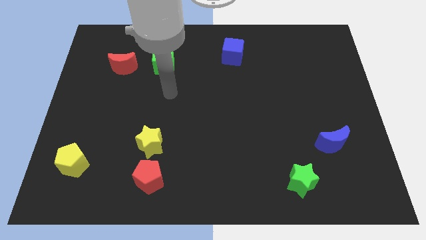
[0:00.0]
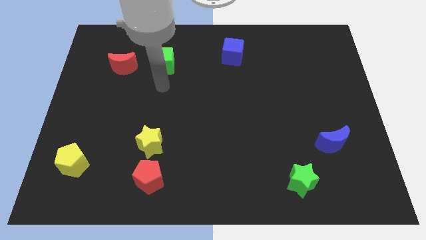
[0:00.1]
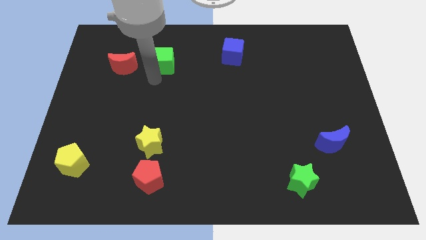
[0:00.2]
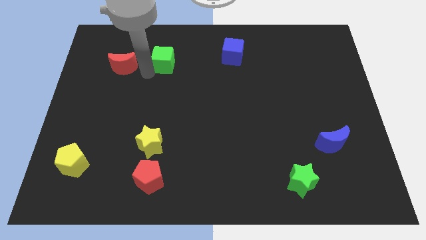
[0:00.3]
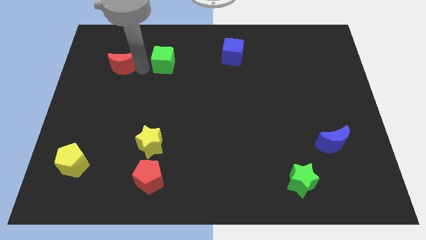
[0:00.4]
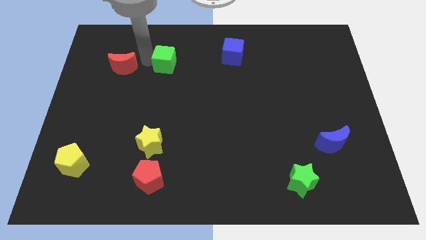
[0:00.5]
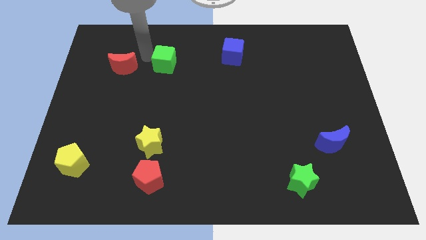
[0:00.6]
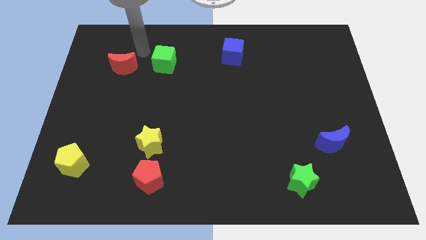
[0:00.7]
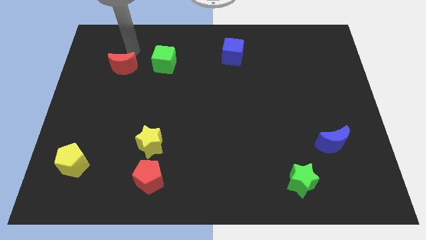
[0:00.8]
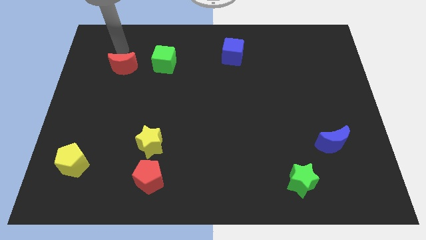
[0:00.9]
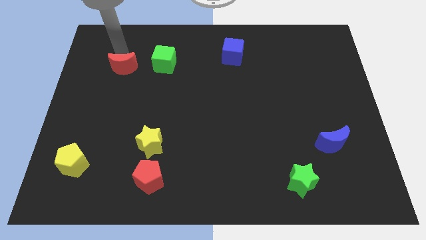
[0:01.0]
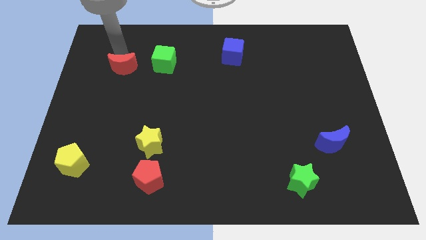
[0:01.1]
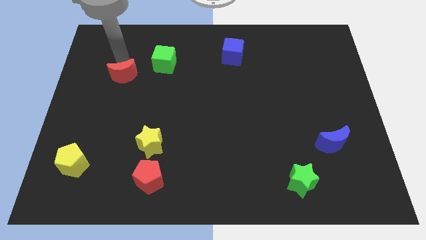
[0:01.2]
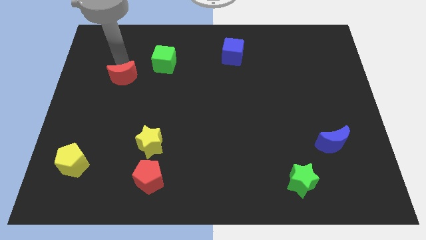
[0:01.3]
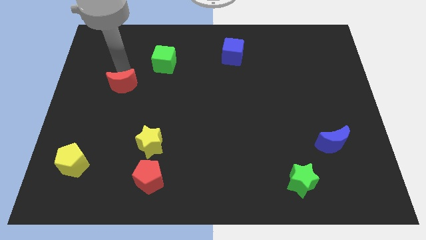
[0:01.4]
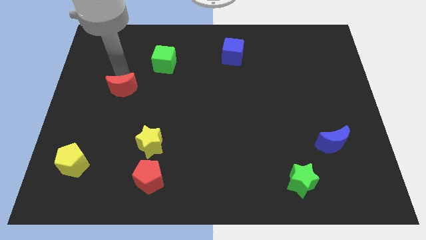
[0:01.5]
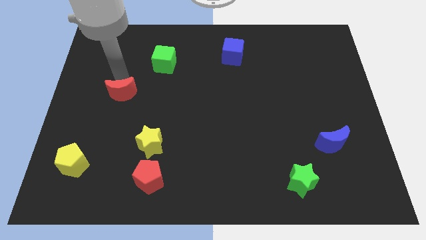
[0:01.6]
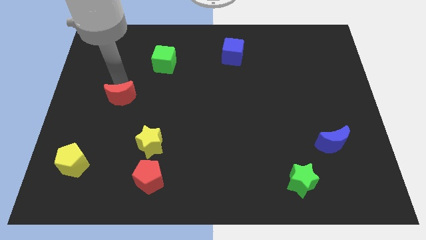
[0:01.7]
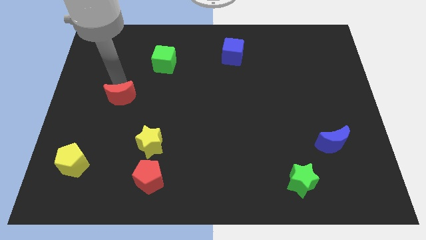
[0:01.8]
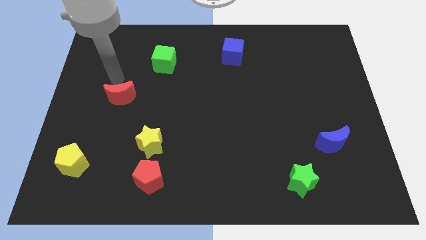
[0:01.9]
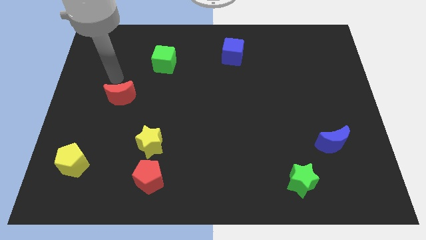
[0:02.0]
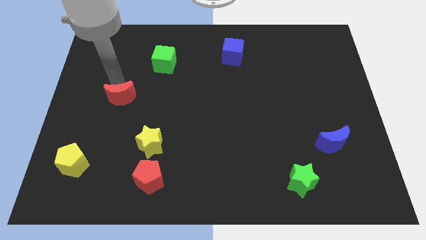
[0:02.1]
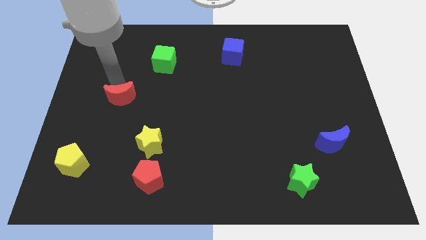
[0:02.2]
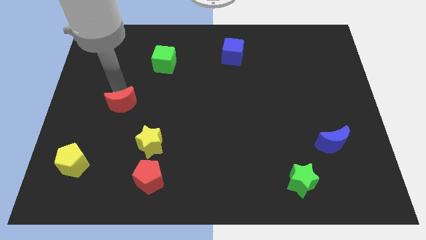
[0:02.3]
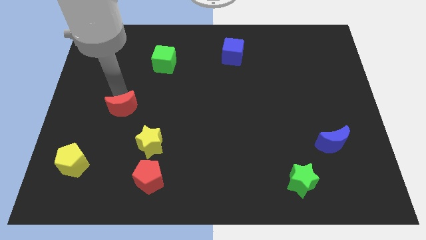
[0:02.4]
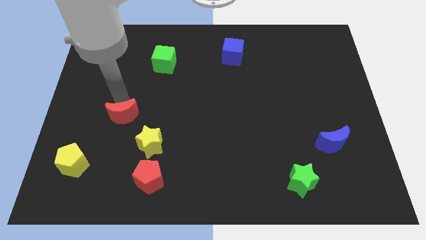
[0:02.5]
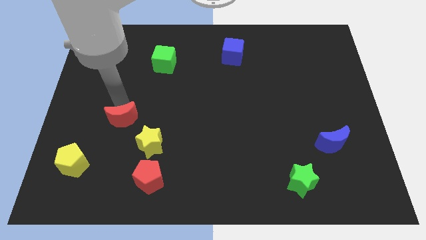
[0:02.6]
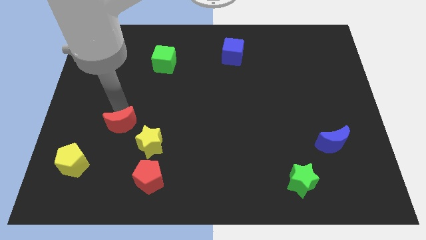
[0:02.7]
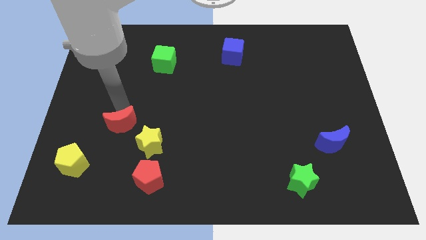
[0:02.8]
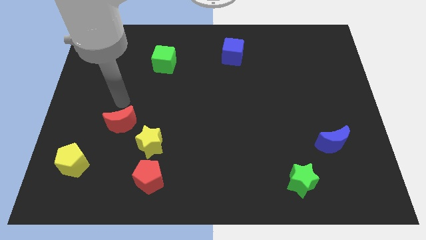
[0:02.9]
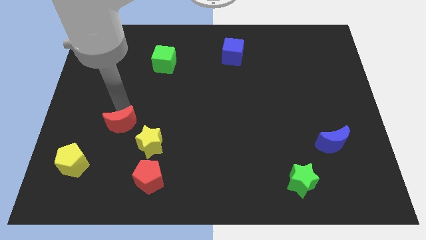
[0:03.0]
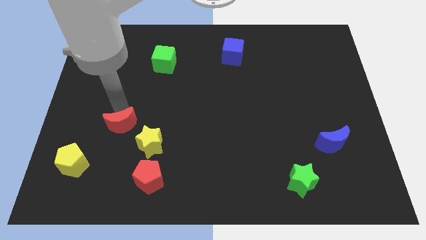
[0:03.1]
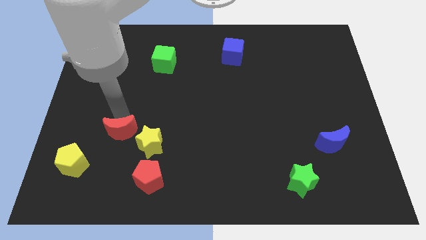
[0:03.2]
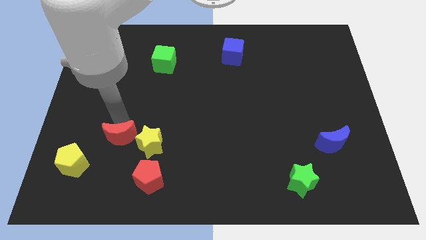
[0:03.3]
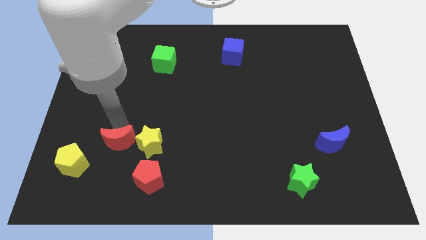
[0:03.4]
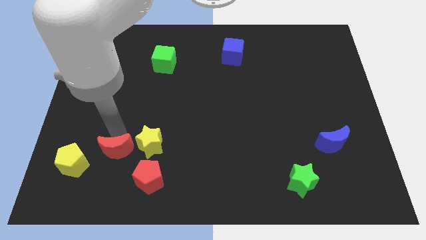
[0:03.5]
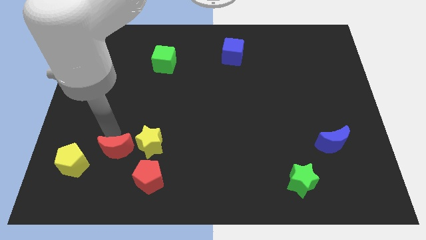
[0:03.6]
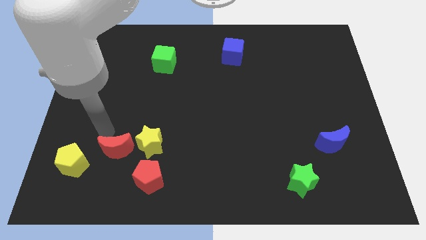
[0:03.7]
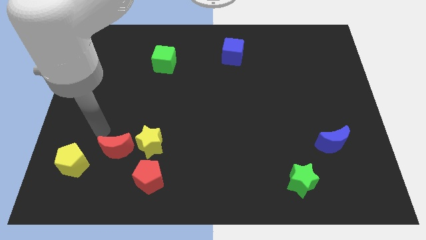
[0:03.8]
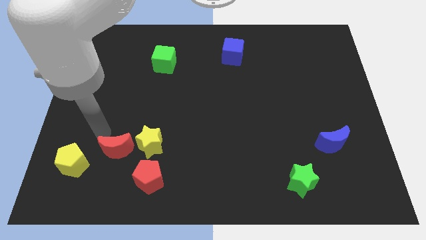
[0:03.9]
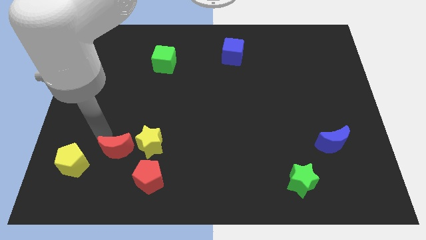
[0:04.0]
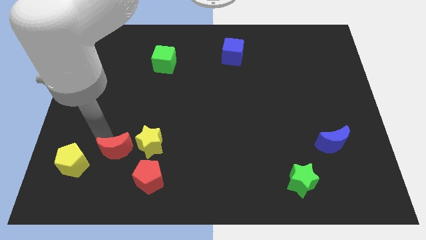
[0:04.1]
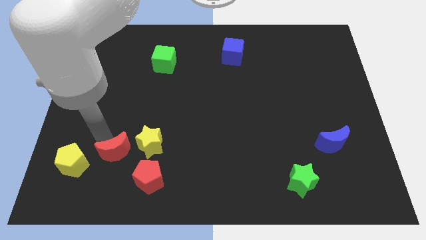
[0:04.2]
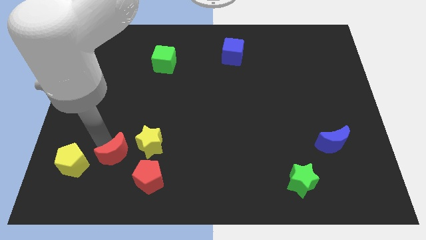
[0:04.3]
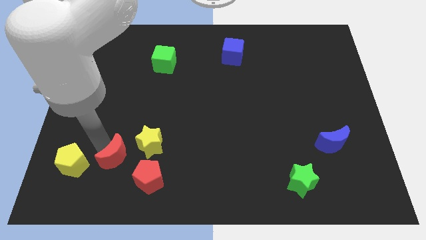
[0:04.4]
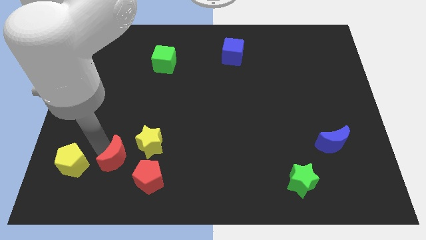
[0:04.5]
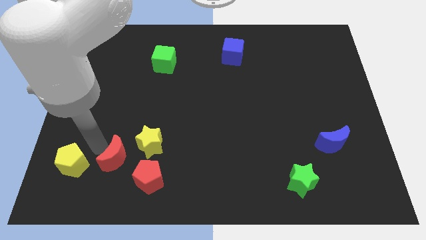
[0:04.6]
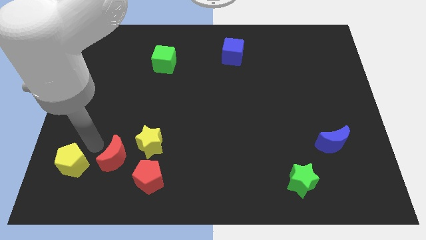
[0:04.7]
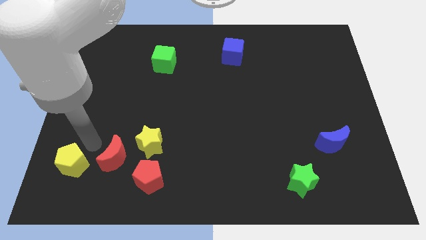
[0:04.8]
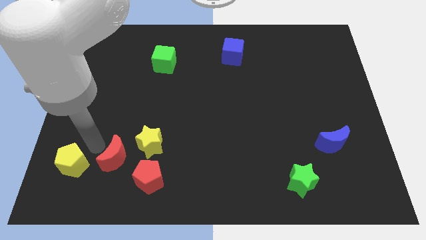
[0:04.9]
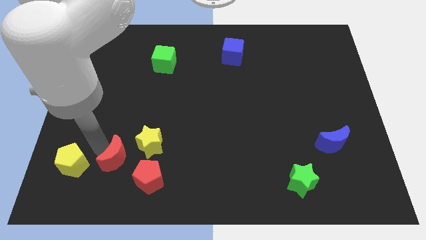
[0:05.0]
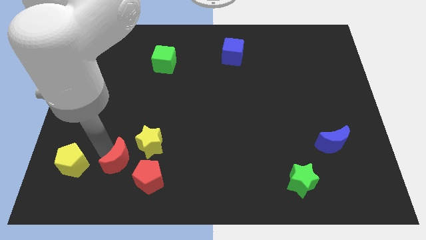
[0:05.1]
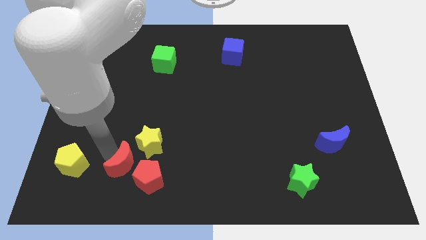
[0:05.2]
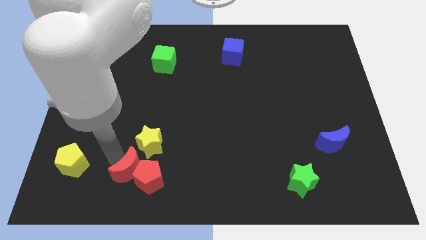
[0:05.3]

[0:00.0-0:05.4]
push the red moon close to the red pentagon

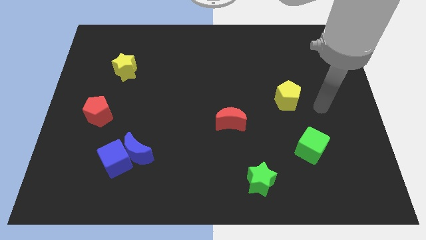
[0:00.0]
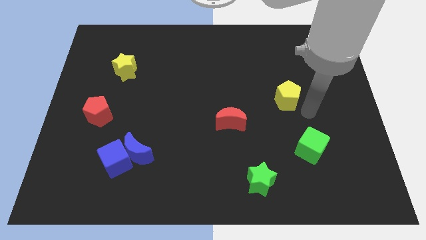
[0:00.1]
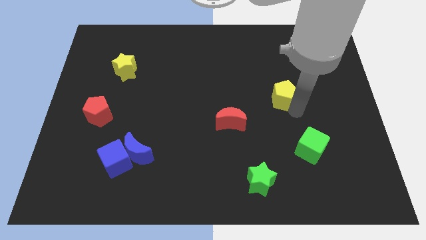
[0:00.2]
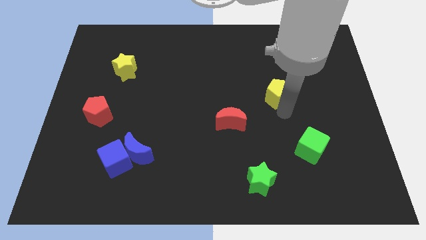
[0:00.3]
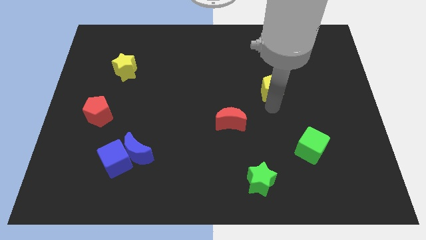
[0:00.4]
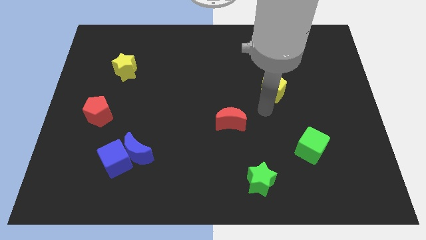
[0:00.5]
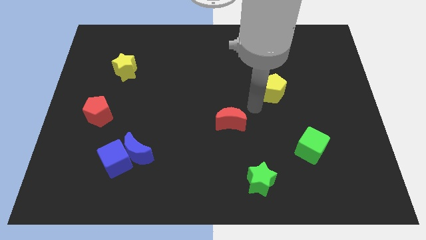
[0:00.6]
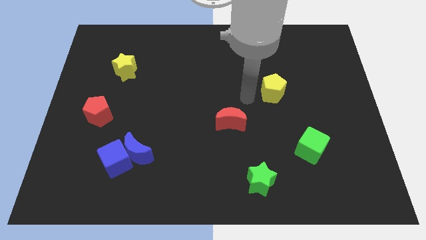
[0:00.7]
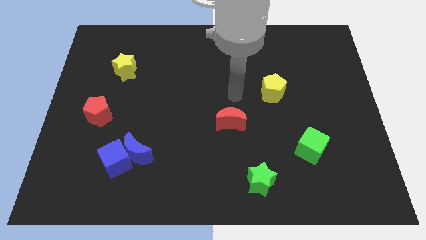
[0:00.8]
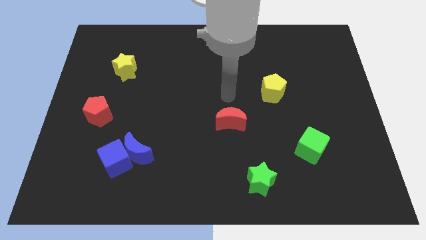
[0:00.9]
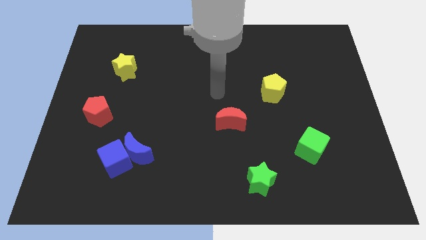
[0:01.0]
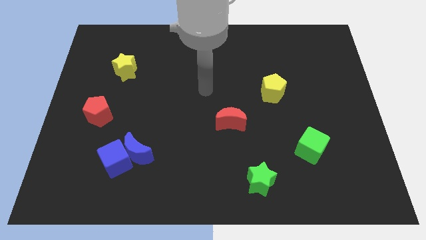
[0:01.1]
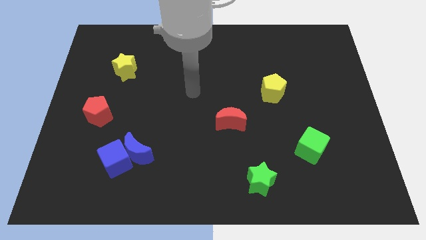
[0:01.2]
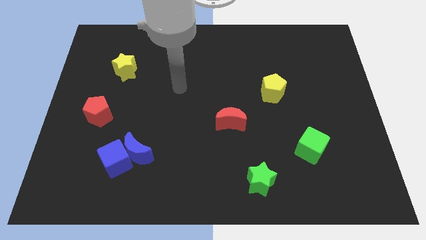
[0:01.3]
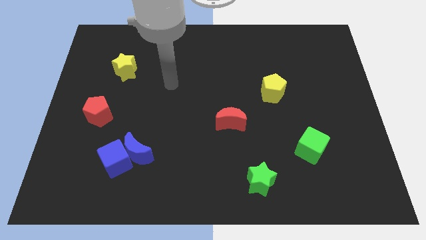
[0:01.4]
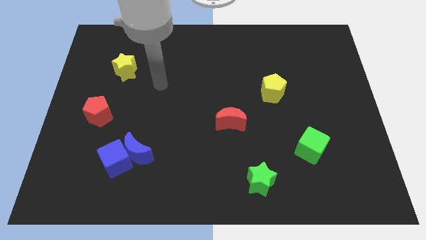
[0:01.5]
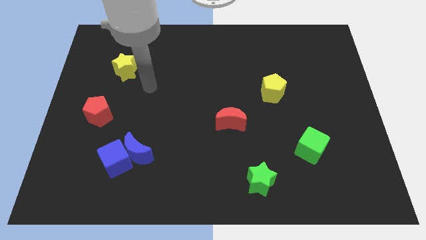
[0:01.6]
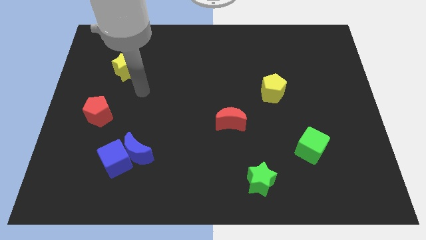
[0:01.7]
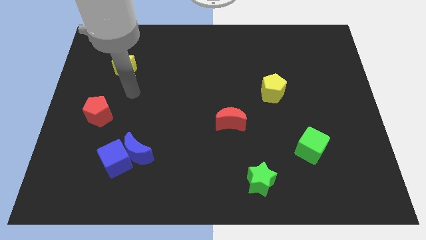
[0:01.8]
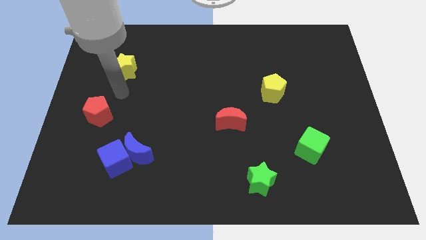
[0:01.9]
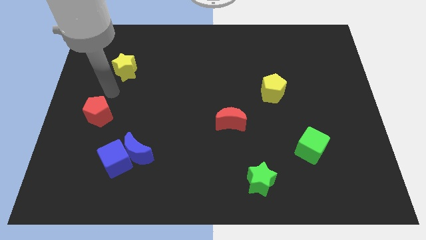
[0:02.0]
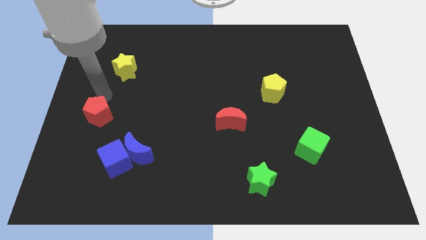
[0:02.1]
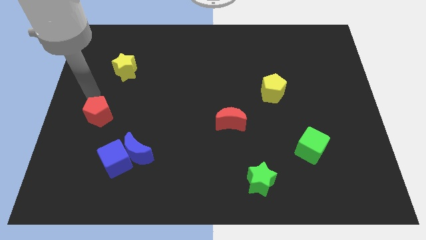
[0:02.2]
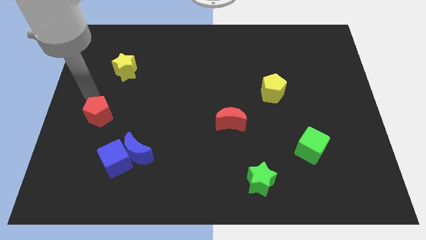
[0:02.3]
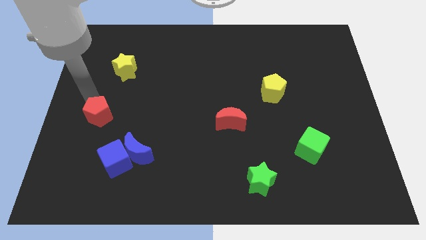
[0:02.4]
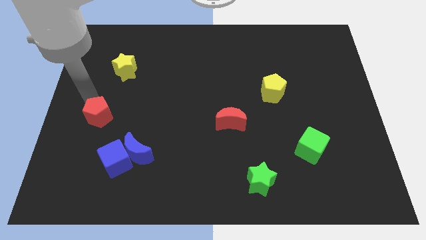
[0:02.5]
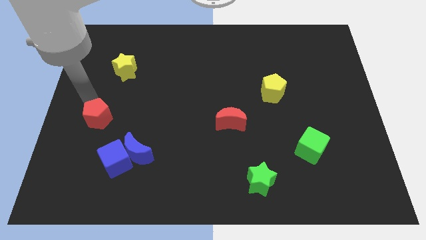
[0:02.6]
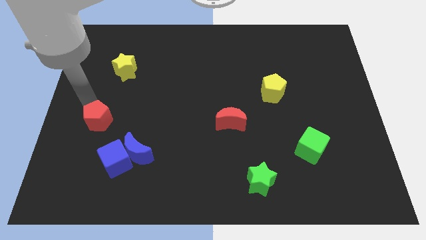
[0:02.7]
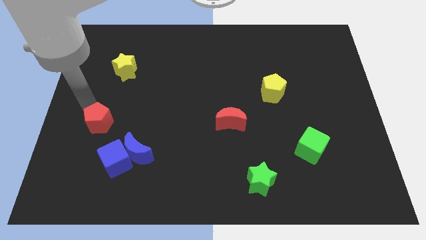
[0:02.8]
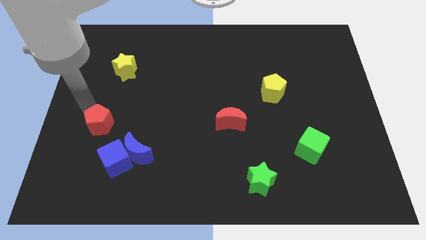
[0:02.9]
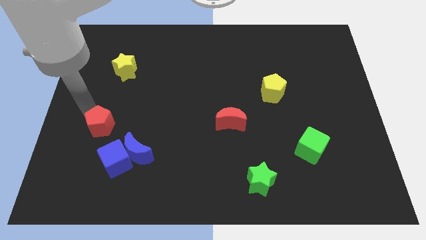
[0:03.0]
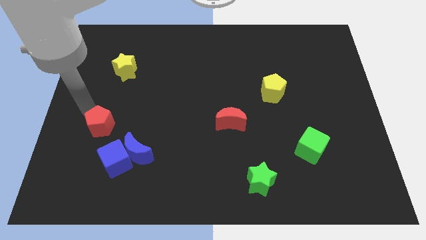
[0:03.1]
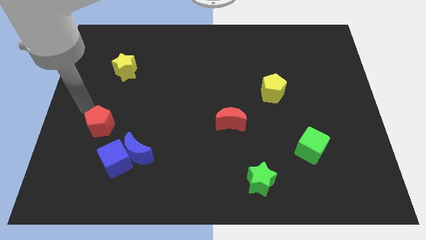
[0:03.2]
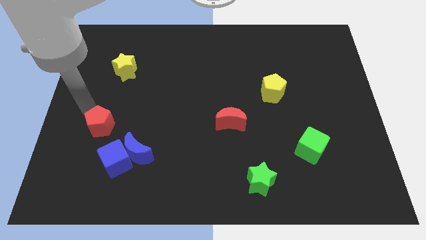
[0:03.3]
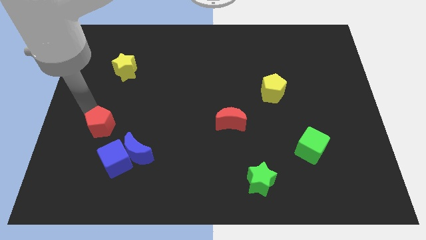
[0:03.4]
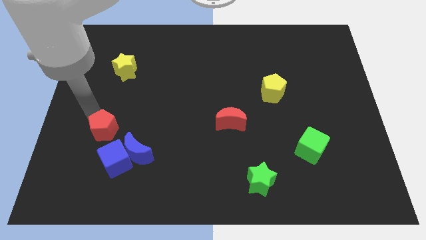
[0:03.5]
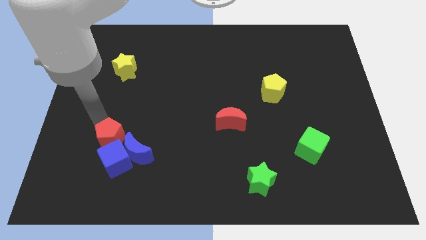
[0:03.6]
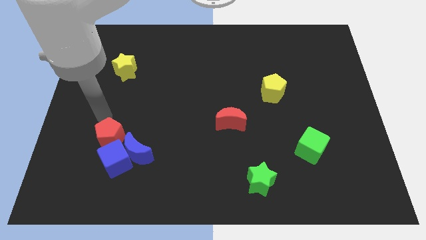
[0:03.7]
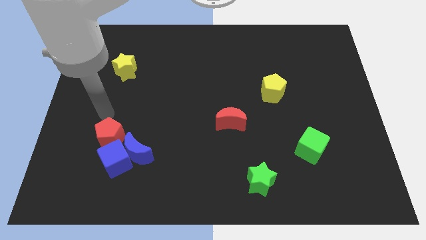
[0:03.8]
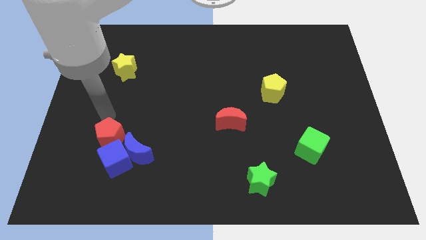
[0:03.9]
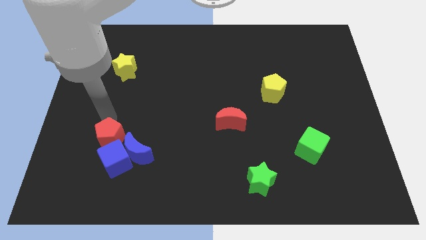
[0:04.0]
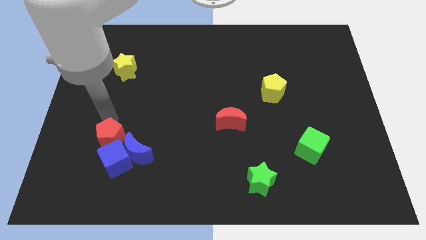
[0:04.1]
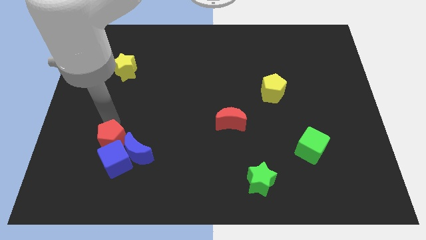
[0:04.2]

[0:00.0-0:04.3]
push the red pentagon next to the blue cube
